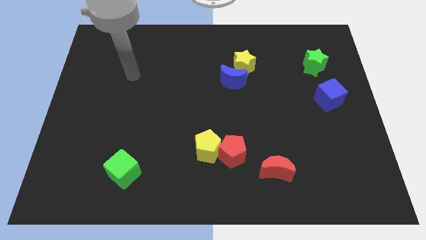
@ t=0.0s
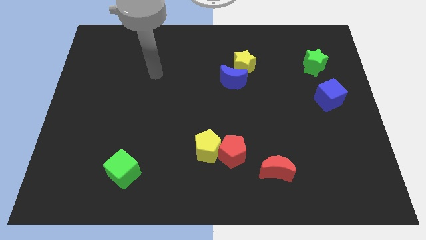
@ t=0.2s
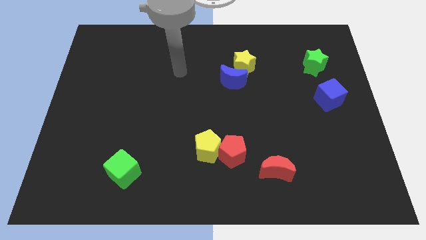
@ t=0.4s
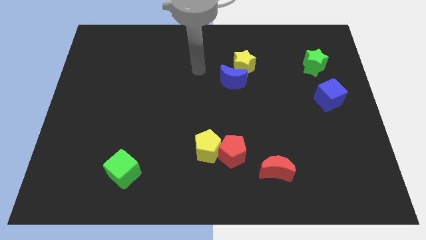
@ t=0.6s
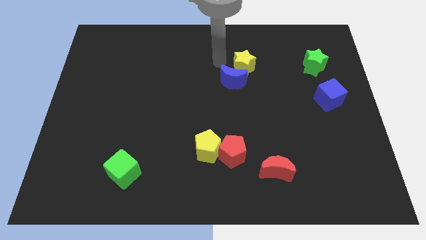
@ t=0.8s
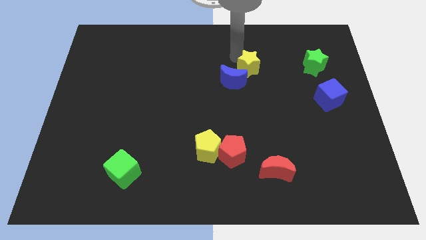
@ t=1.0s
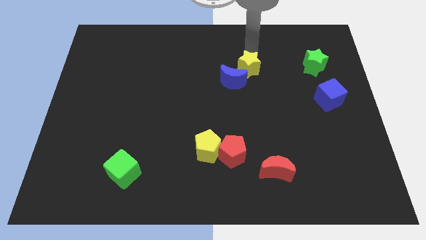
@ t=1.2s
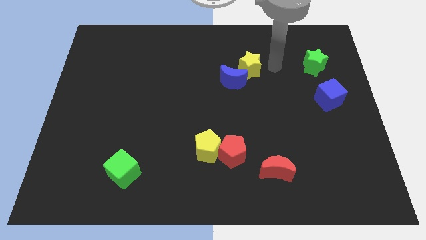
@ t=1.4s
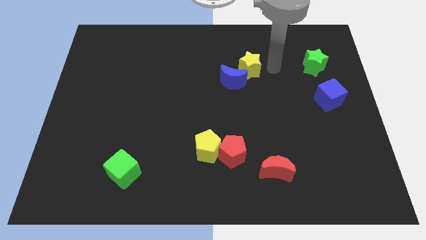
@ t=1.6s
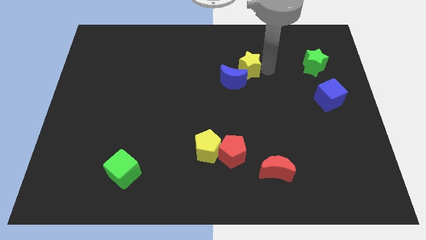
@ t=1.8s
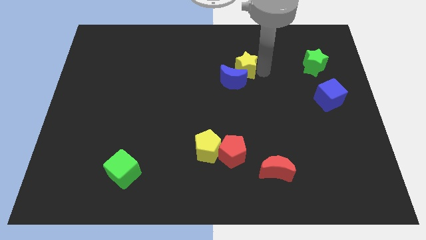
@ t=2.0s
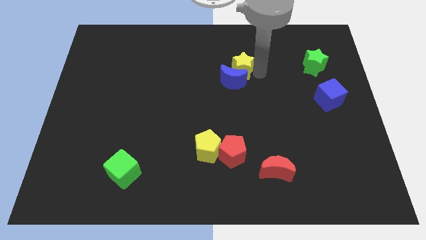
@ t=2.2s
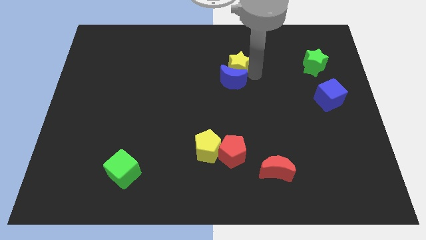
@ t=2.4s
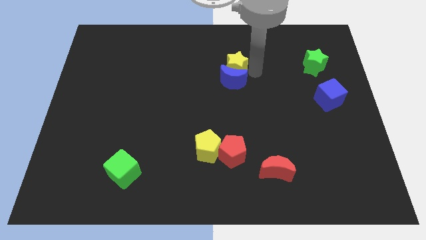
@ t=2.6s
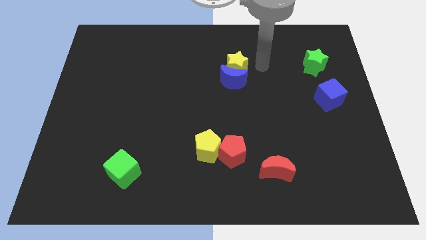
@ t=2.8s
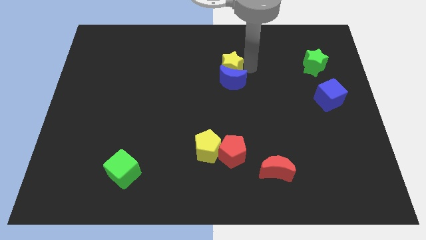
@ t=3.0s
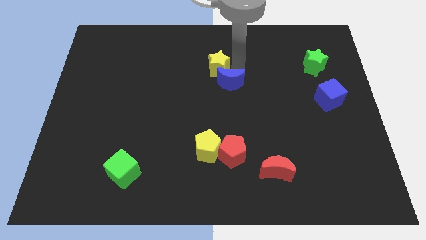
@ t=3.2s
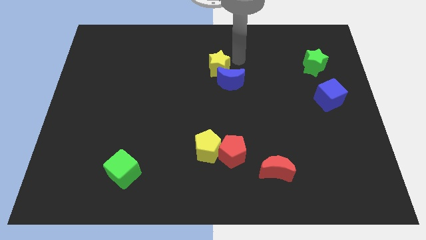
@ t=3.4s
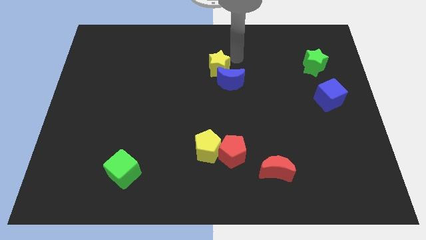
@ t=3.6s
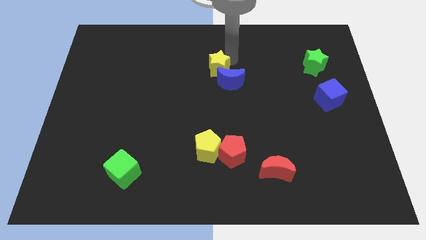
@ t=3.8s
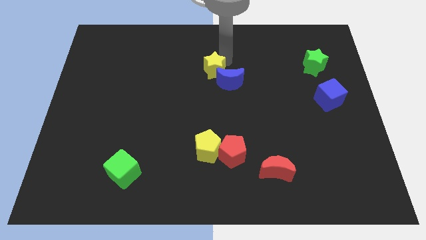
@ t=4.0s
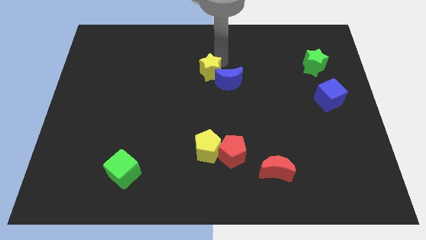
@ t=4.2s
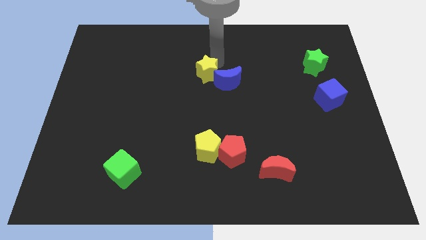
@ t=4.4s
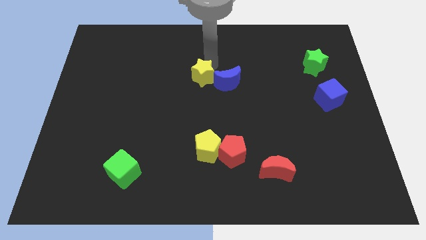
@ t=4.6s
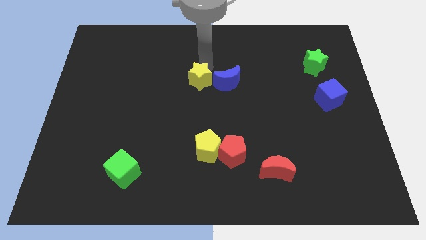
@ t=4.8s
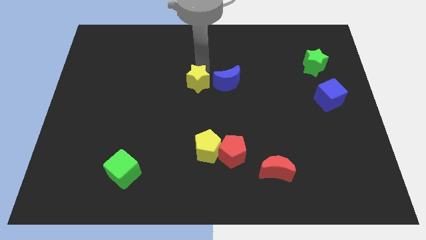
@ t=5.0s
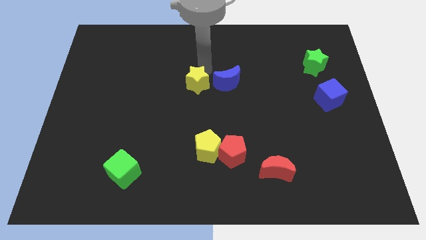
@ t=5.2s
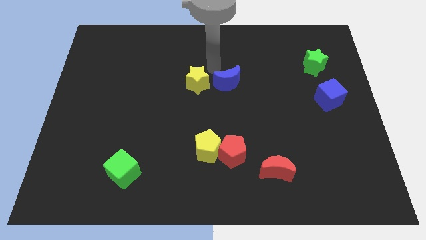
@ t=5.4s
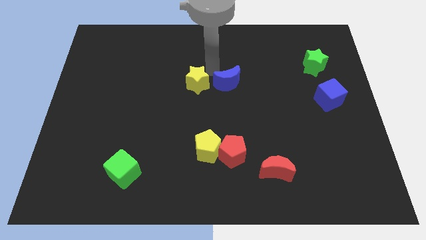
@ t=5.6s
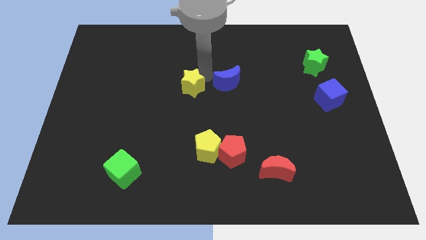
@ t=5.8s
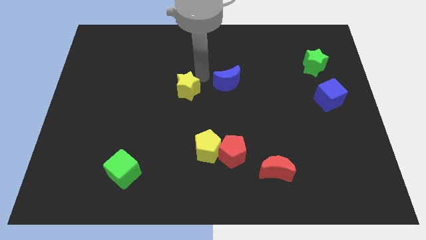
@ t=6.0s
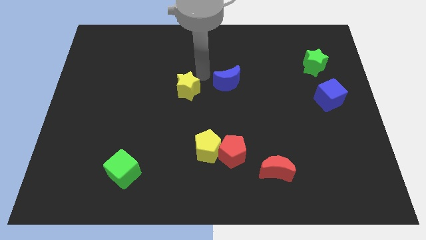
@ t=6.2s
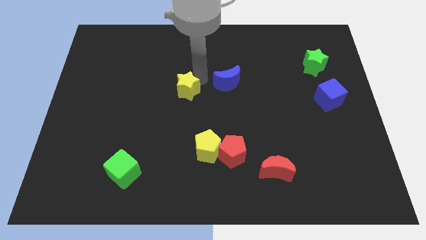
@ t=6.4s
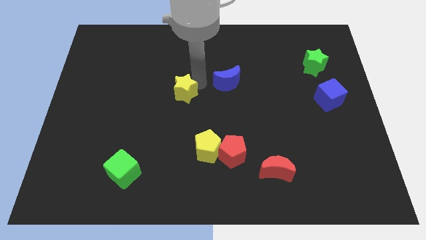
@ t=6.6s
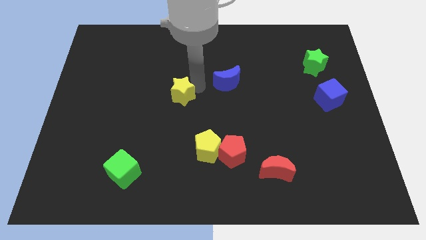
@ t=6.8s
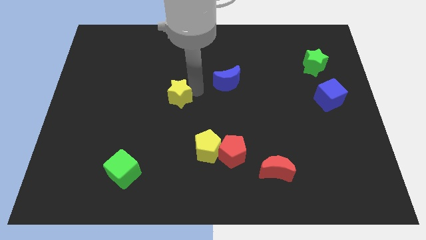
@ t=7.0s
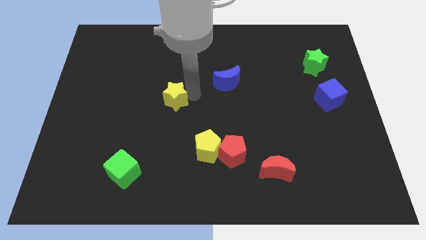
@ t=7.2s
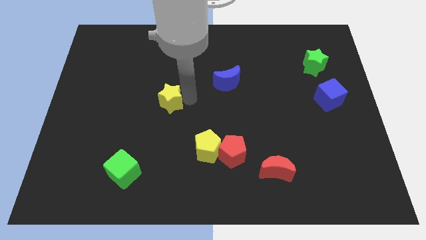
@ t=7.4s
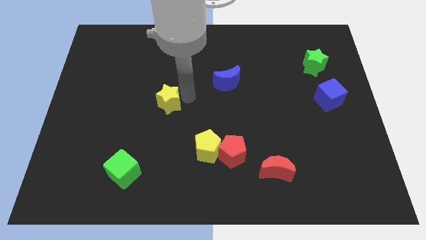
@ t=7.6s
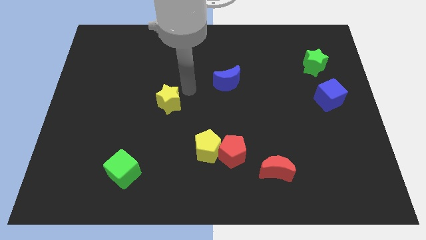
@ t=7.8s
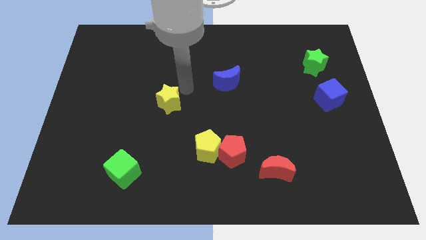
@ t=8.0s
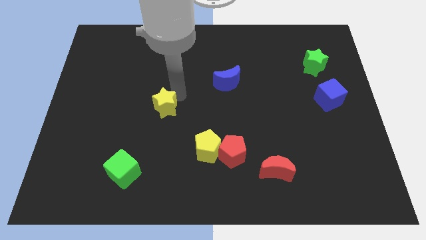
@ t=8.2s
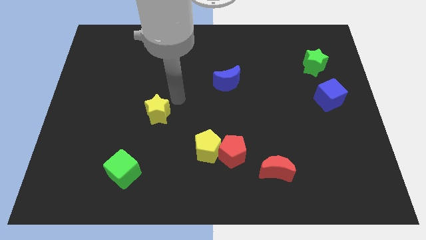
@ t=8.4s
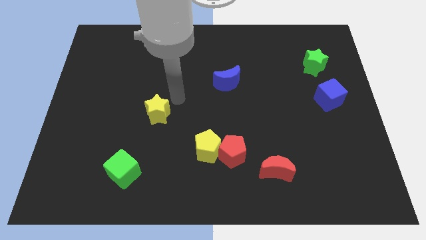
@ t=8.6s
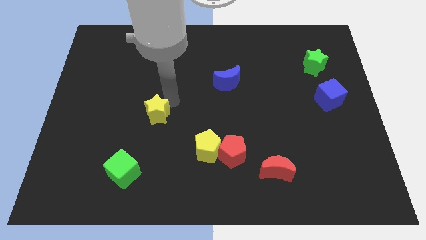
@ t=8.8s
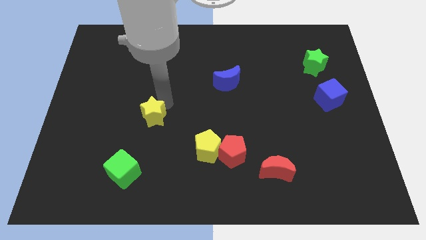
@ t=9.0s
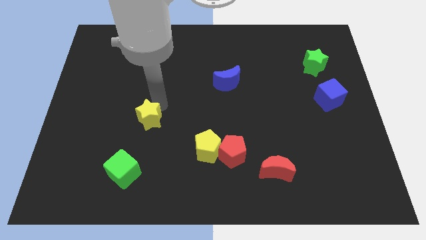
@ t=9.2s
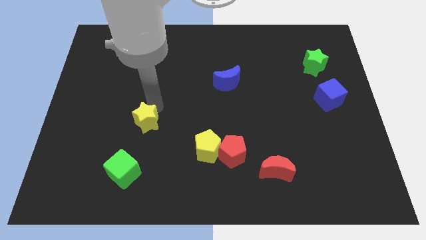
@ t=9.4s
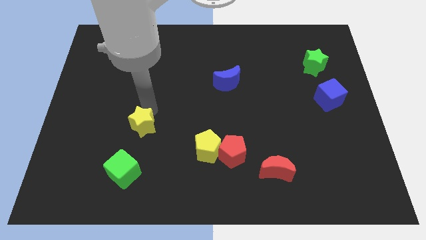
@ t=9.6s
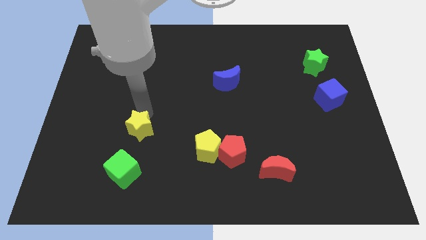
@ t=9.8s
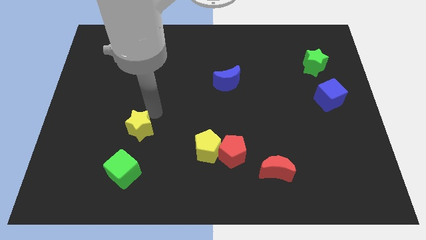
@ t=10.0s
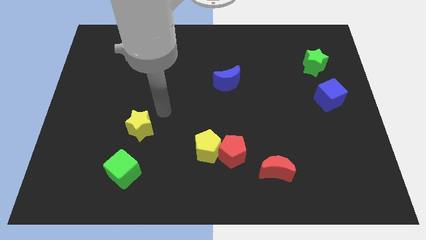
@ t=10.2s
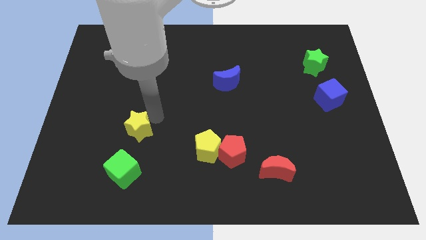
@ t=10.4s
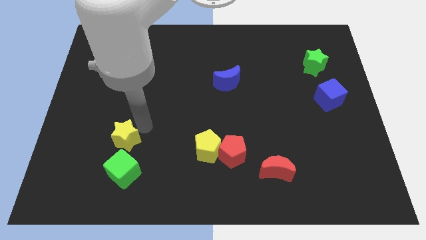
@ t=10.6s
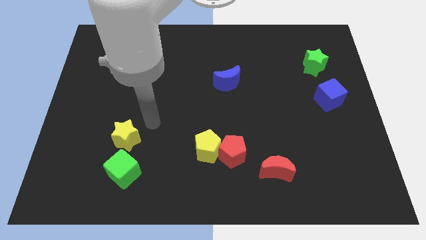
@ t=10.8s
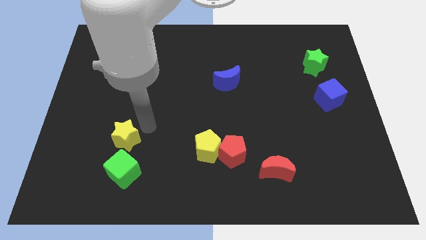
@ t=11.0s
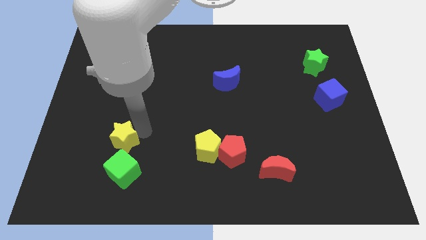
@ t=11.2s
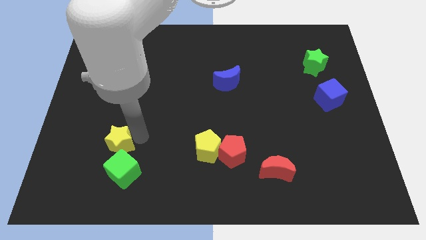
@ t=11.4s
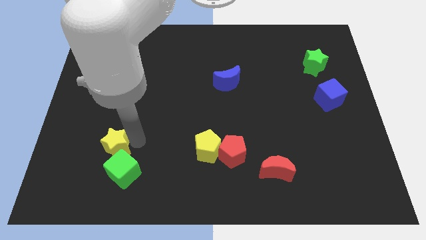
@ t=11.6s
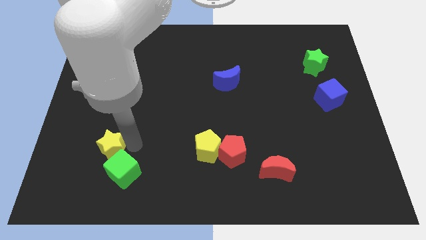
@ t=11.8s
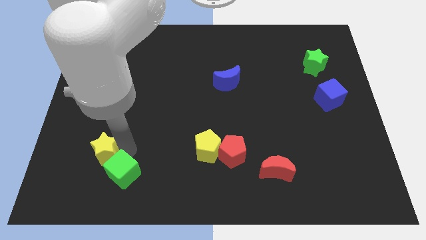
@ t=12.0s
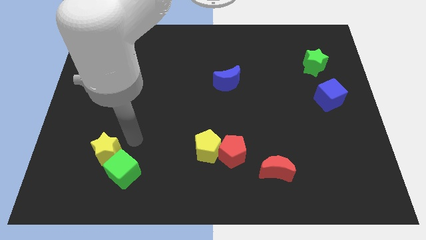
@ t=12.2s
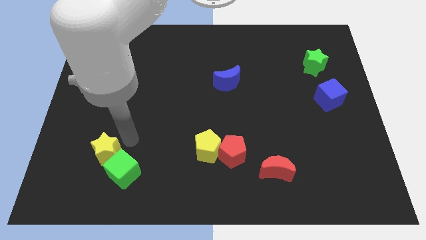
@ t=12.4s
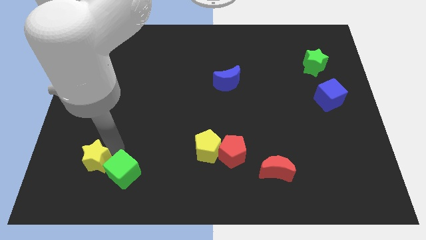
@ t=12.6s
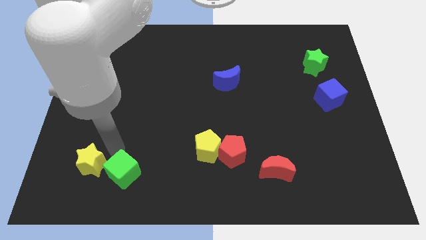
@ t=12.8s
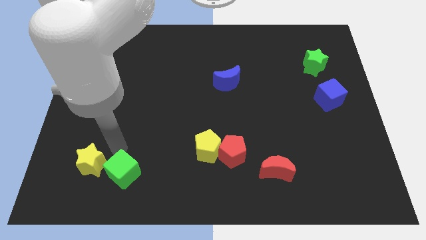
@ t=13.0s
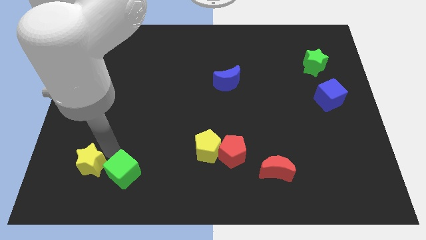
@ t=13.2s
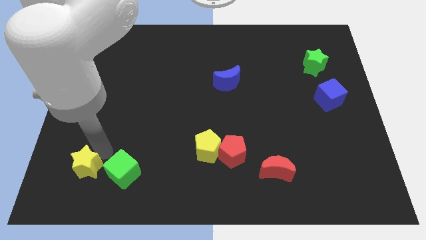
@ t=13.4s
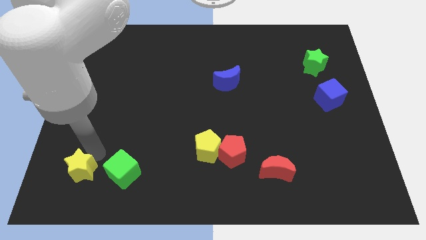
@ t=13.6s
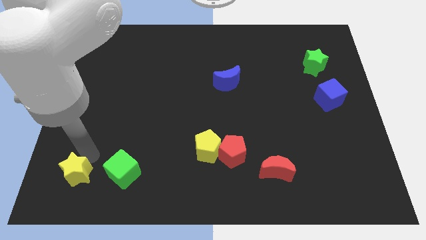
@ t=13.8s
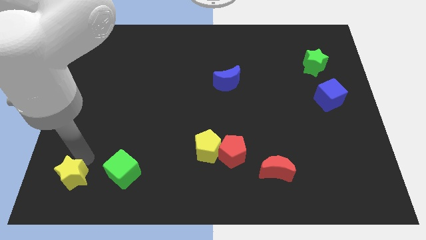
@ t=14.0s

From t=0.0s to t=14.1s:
slide the yellow star to the bottom left
